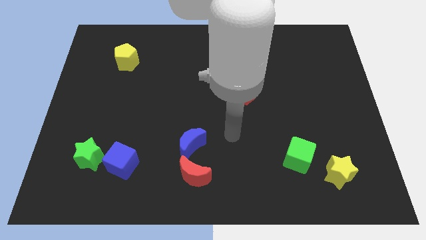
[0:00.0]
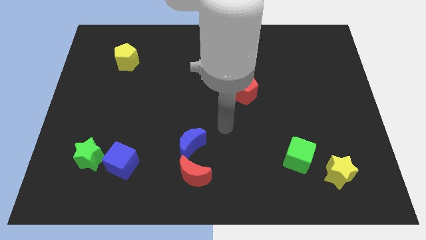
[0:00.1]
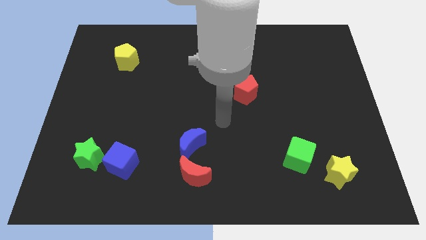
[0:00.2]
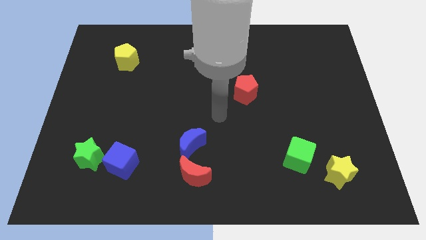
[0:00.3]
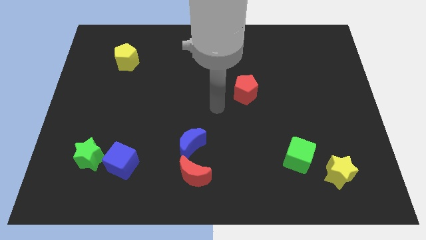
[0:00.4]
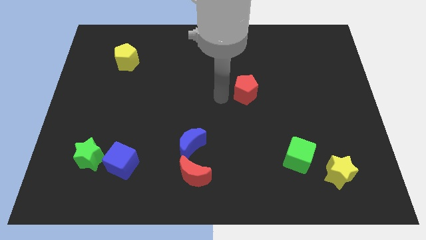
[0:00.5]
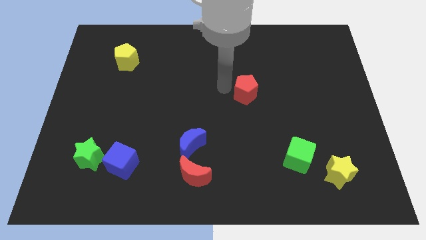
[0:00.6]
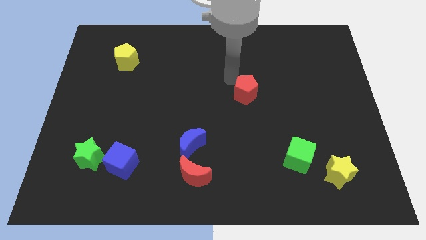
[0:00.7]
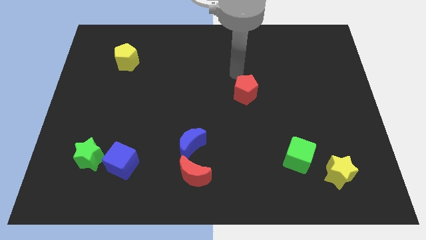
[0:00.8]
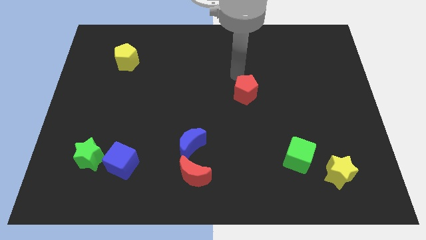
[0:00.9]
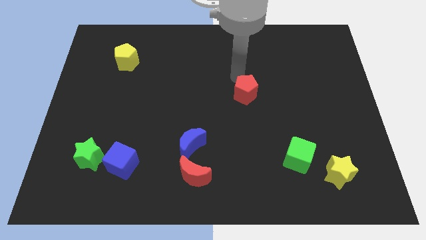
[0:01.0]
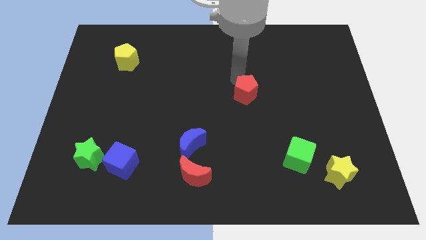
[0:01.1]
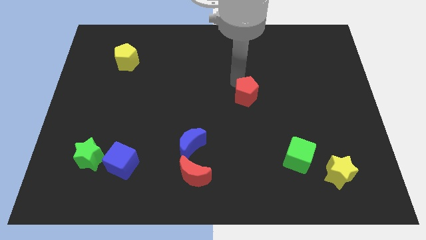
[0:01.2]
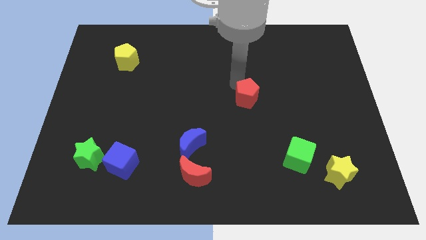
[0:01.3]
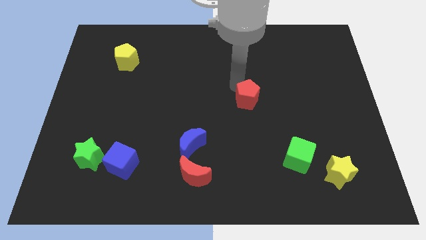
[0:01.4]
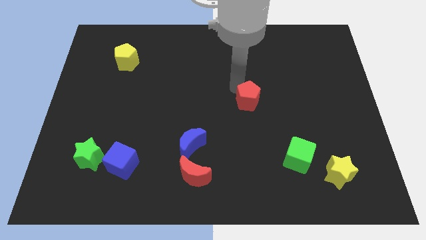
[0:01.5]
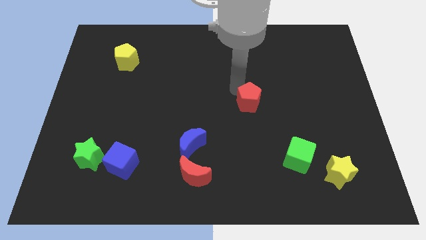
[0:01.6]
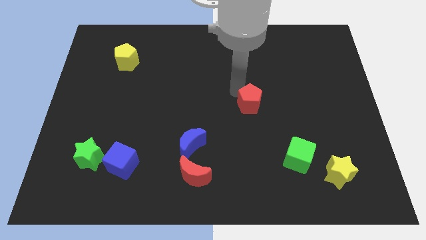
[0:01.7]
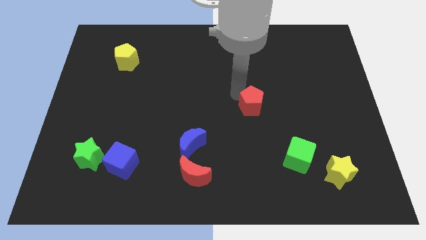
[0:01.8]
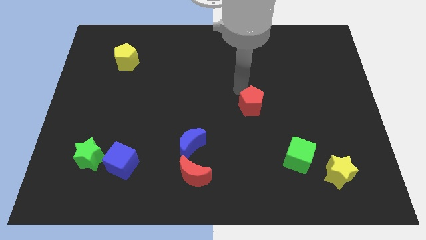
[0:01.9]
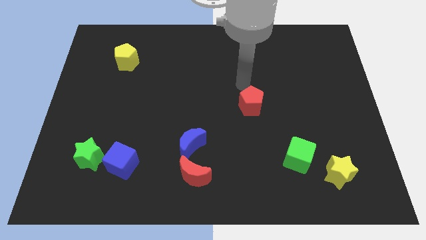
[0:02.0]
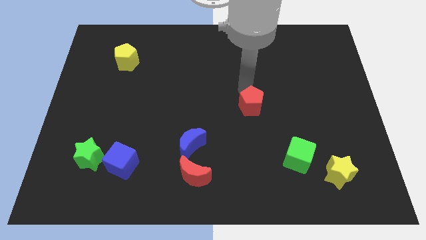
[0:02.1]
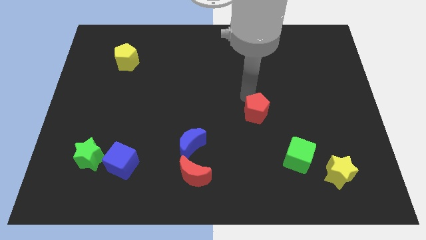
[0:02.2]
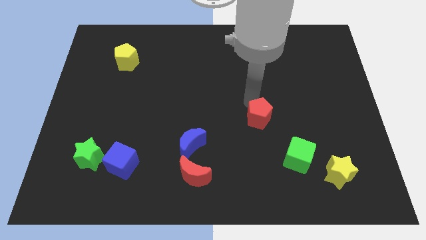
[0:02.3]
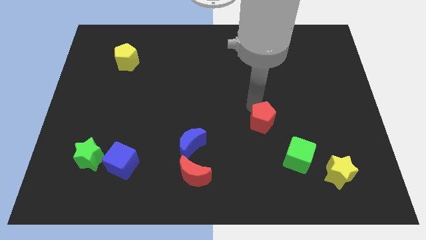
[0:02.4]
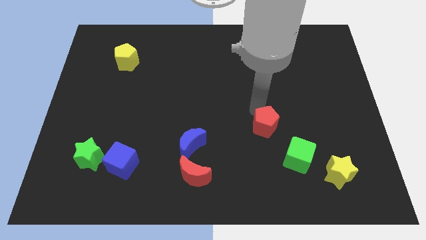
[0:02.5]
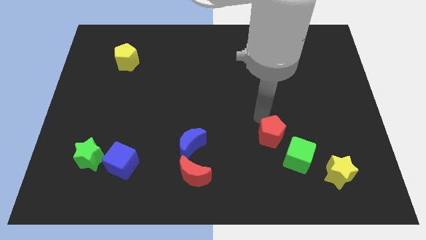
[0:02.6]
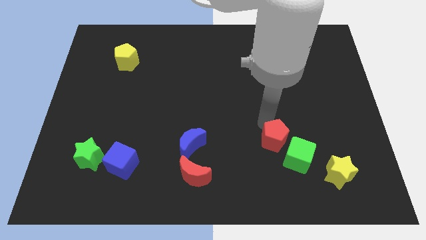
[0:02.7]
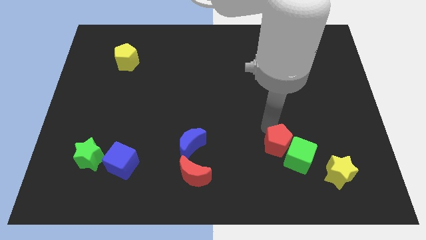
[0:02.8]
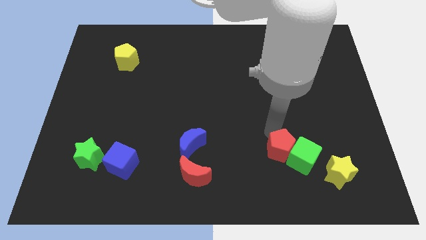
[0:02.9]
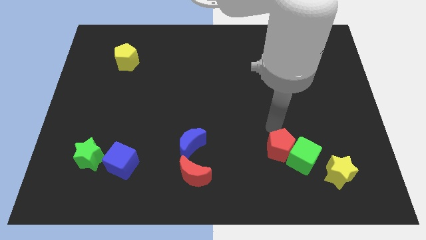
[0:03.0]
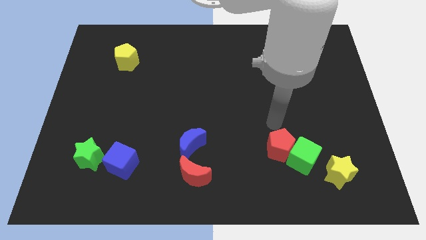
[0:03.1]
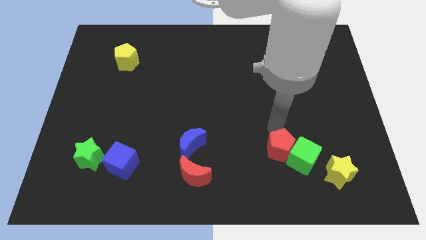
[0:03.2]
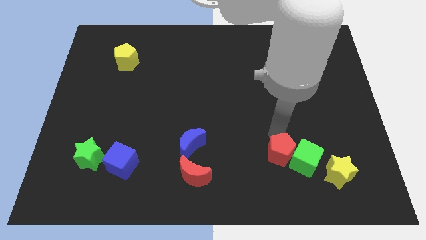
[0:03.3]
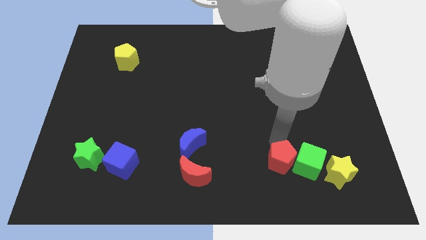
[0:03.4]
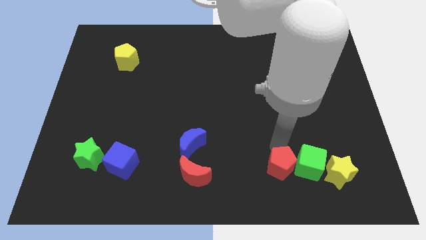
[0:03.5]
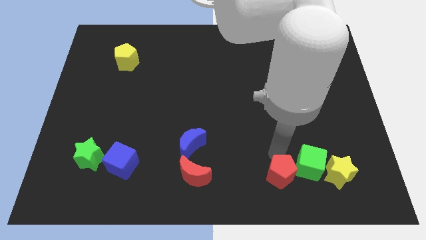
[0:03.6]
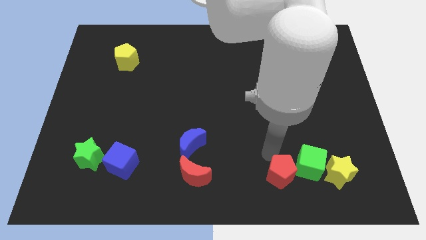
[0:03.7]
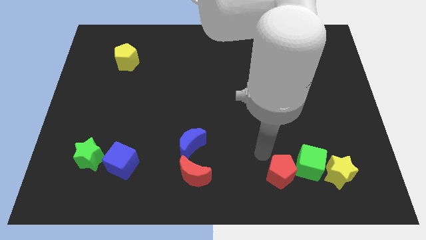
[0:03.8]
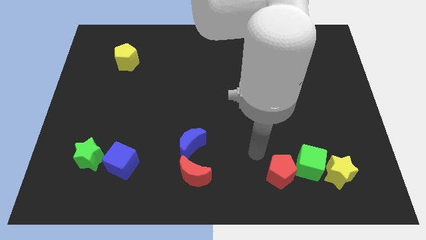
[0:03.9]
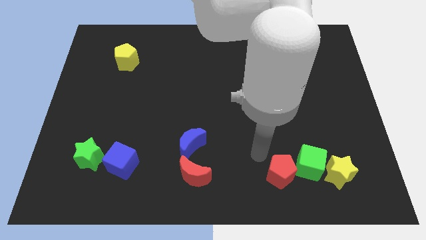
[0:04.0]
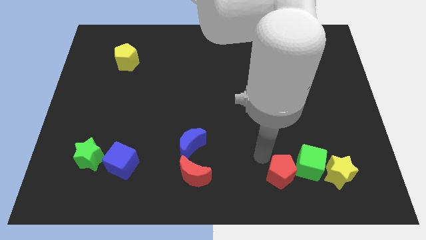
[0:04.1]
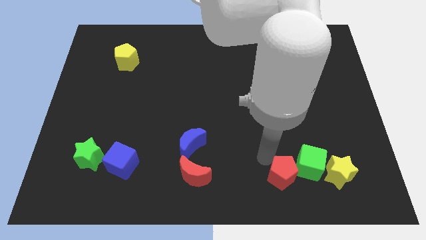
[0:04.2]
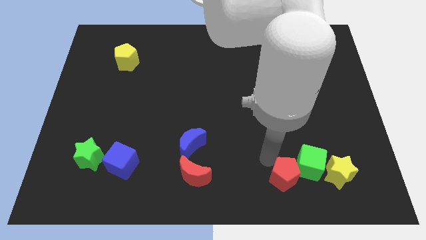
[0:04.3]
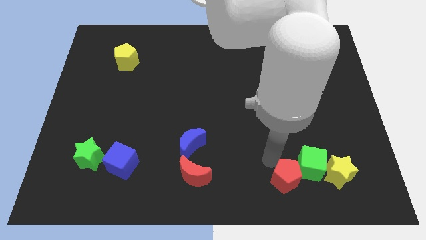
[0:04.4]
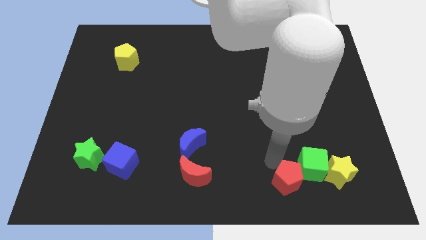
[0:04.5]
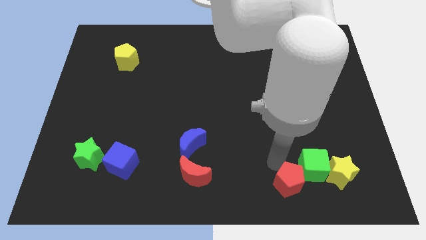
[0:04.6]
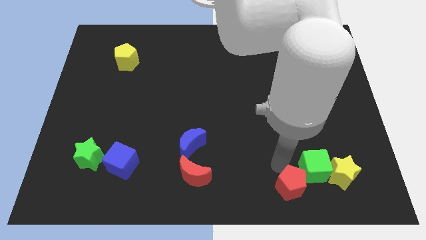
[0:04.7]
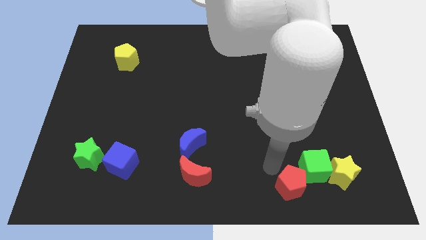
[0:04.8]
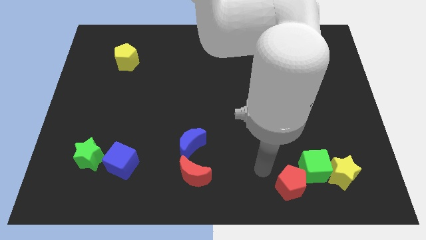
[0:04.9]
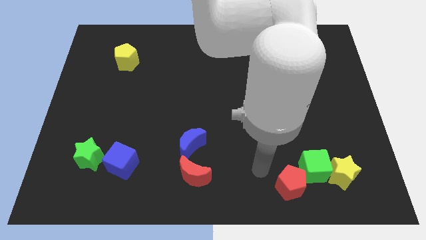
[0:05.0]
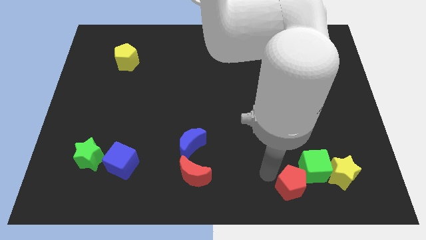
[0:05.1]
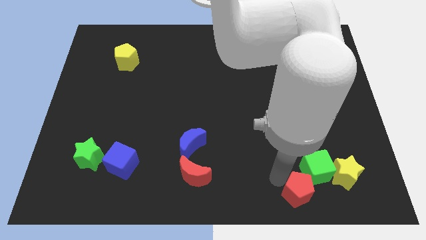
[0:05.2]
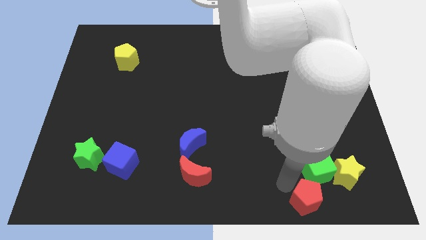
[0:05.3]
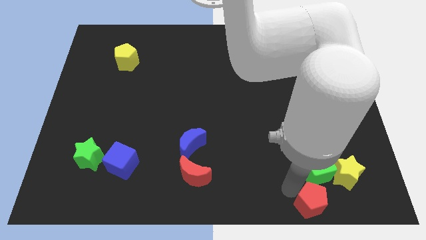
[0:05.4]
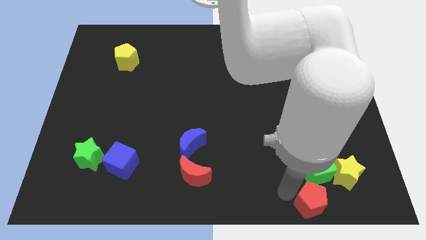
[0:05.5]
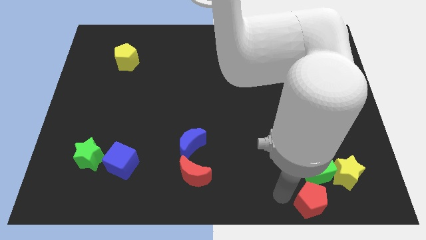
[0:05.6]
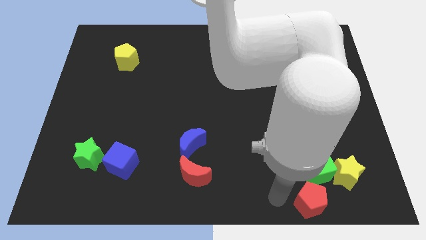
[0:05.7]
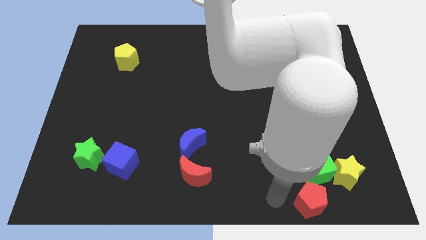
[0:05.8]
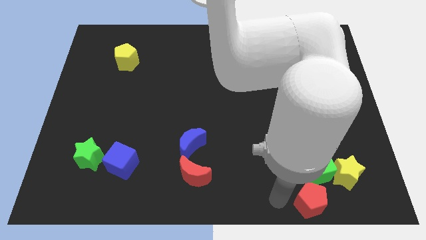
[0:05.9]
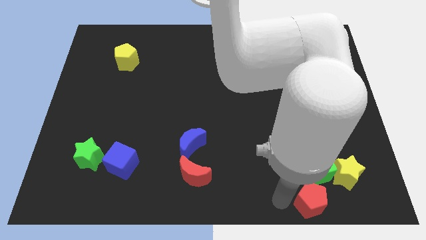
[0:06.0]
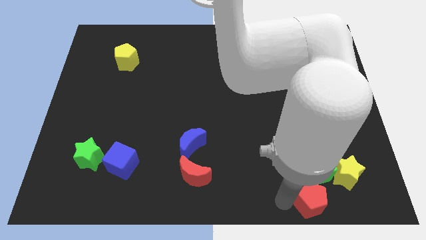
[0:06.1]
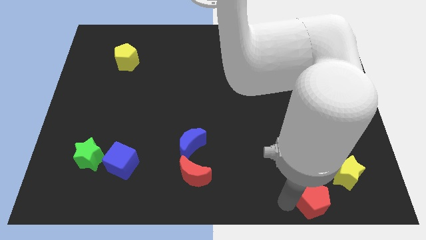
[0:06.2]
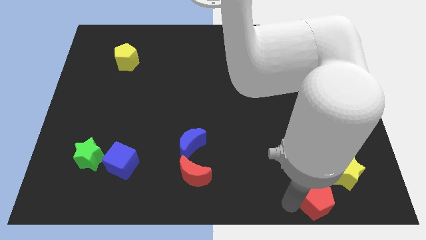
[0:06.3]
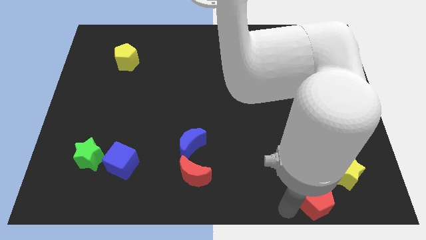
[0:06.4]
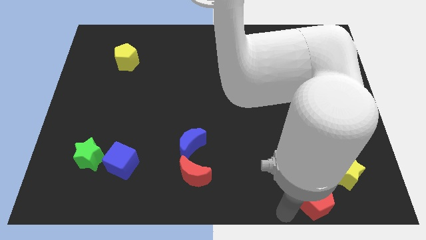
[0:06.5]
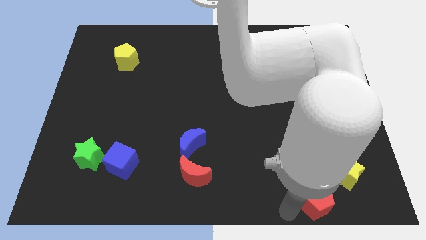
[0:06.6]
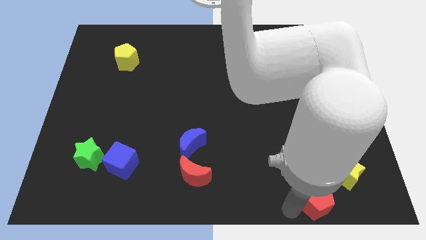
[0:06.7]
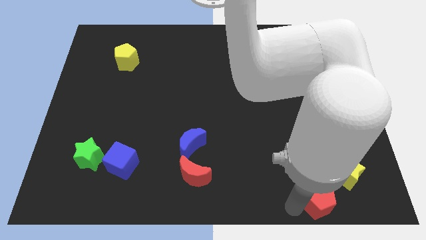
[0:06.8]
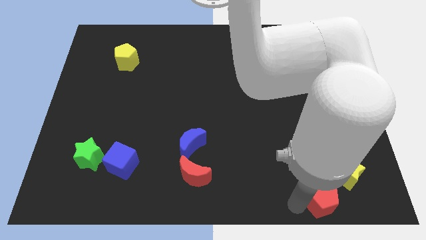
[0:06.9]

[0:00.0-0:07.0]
put the red pentagon to the bottom right side of the green cube
